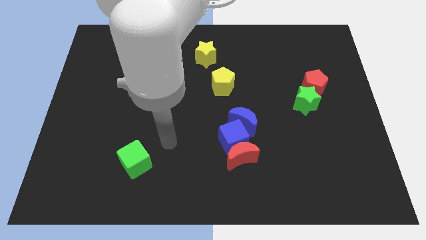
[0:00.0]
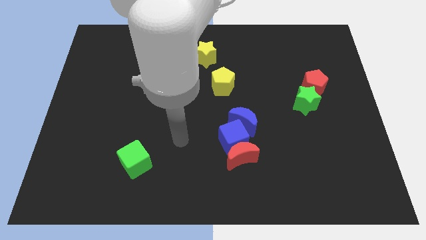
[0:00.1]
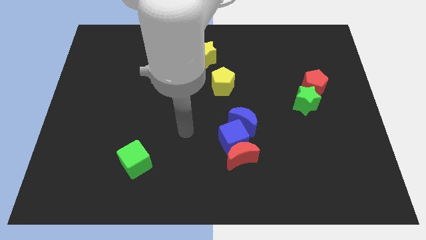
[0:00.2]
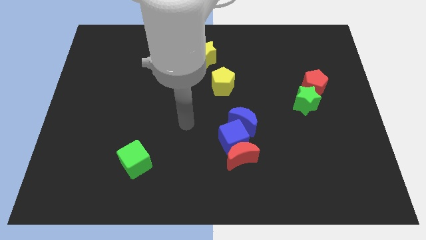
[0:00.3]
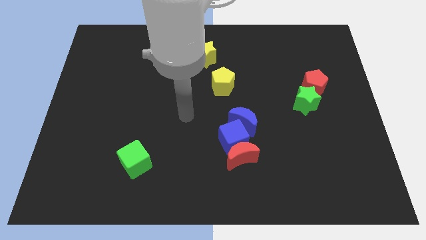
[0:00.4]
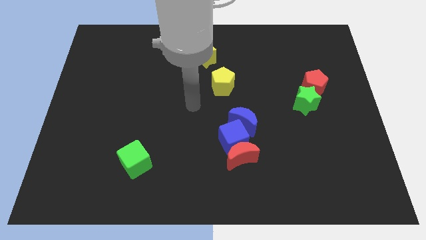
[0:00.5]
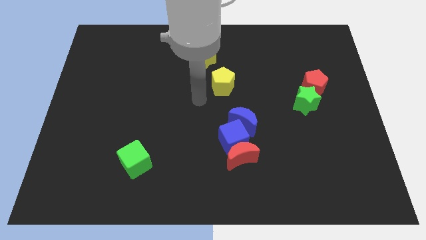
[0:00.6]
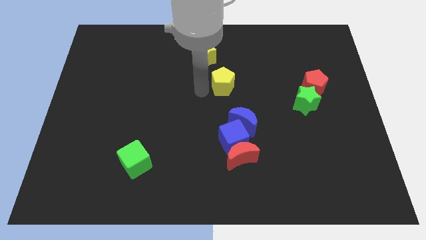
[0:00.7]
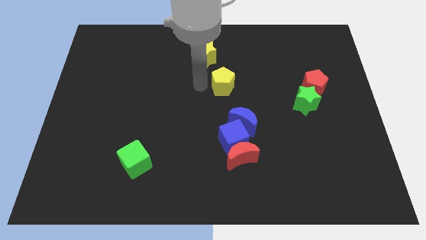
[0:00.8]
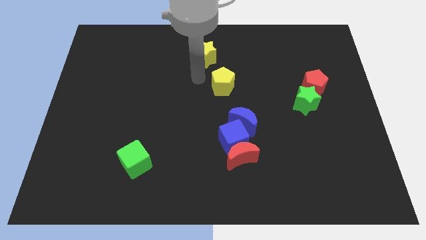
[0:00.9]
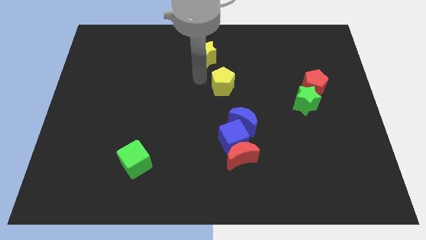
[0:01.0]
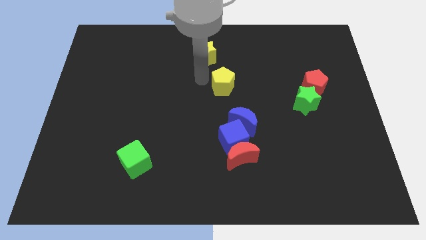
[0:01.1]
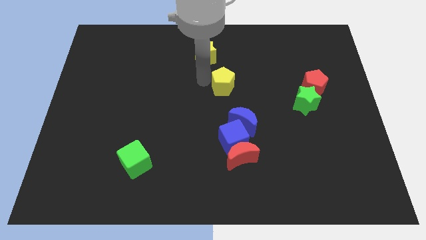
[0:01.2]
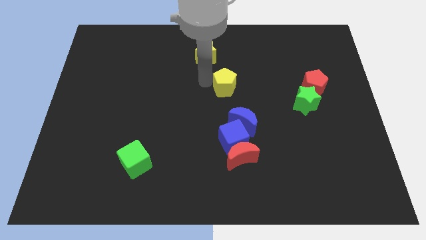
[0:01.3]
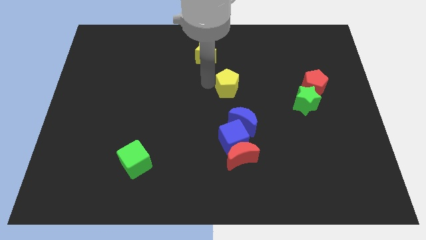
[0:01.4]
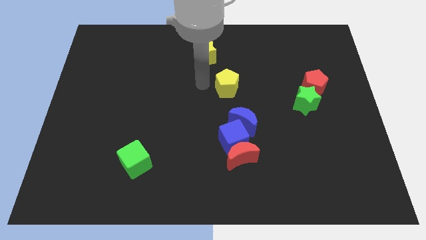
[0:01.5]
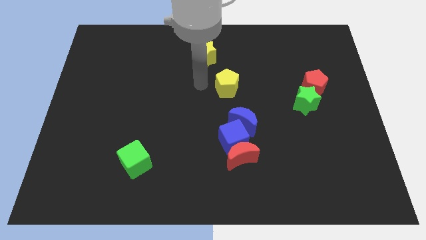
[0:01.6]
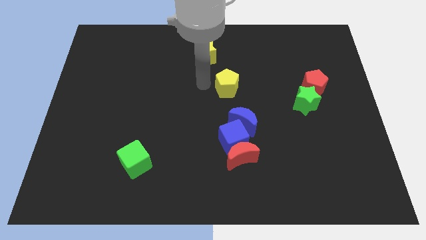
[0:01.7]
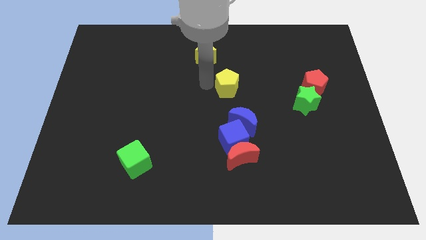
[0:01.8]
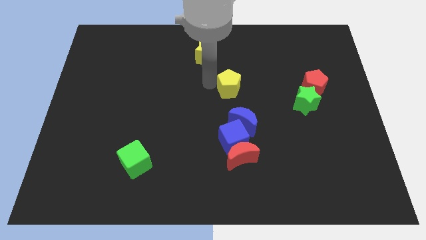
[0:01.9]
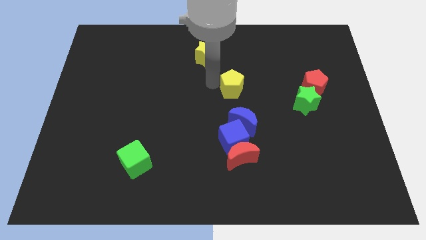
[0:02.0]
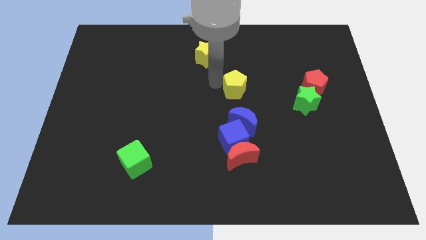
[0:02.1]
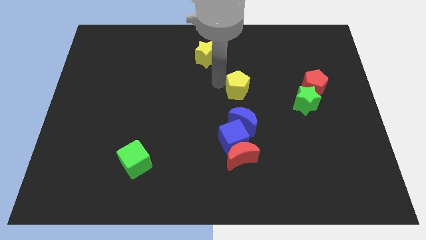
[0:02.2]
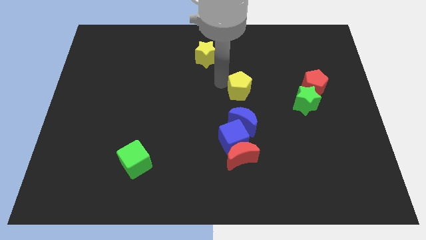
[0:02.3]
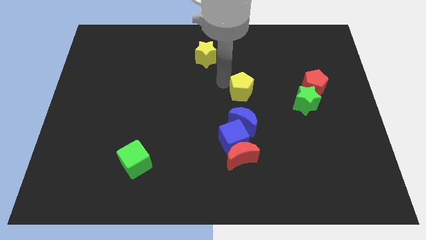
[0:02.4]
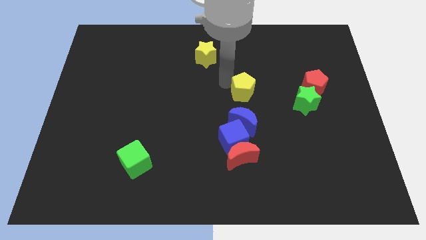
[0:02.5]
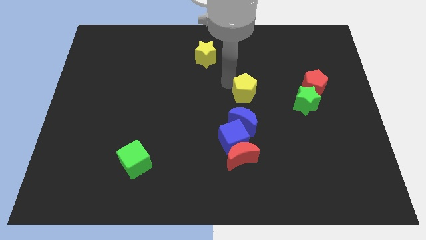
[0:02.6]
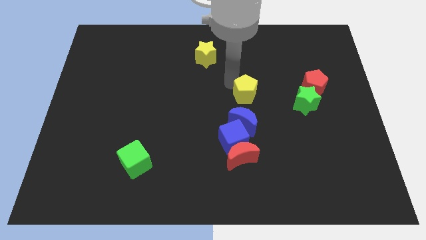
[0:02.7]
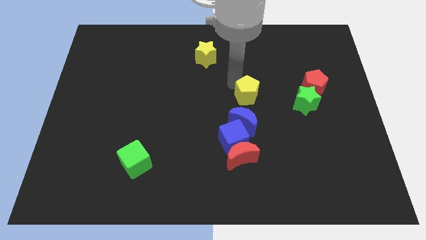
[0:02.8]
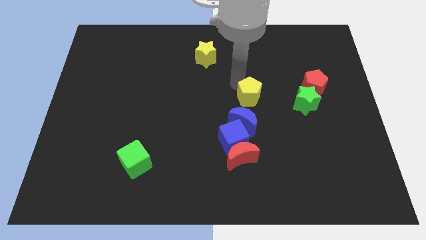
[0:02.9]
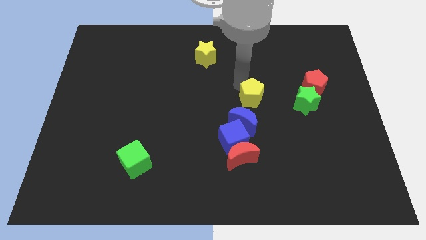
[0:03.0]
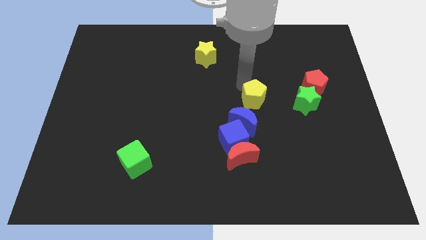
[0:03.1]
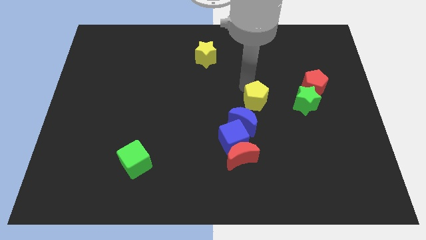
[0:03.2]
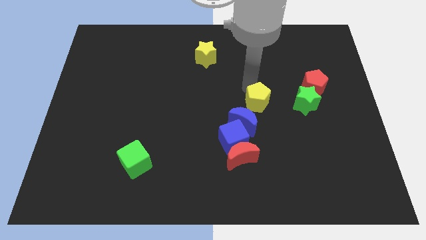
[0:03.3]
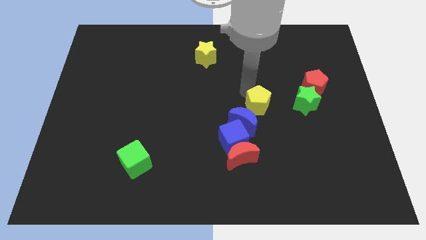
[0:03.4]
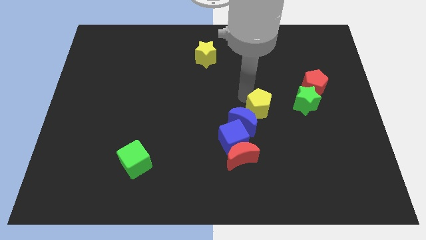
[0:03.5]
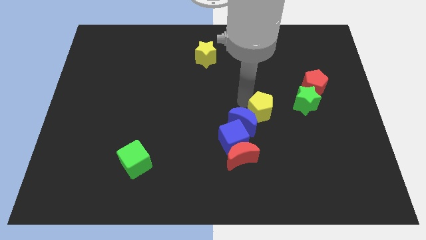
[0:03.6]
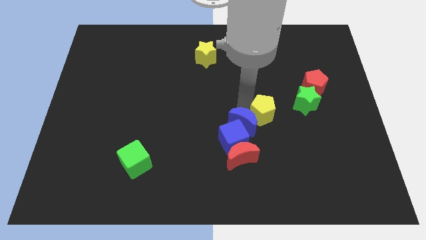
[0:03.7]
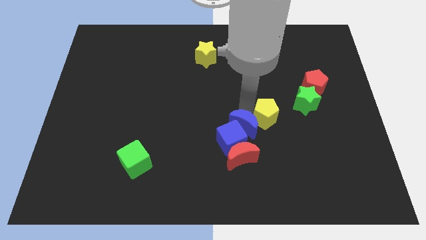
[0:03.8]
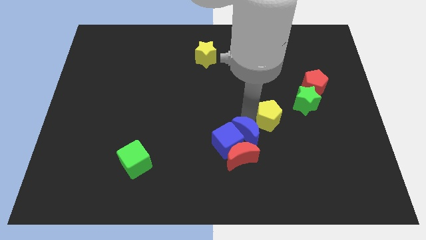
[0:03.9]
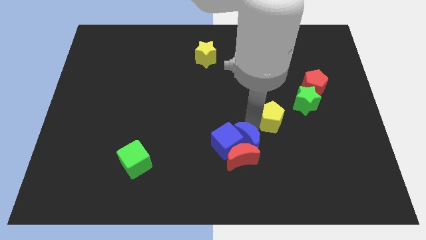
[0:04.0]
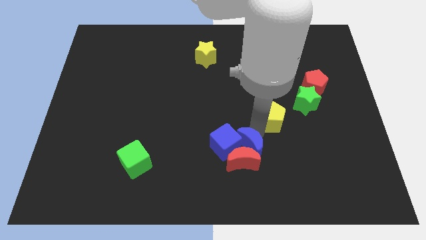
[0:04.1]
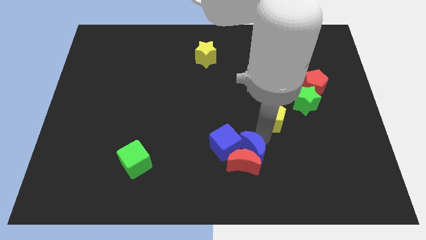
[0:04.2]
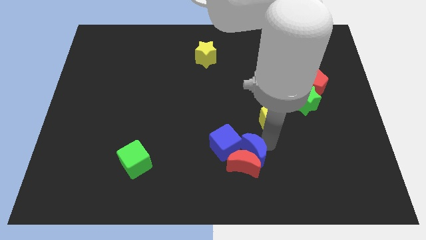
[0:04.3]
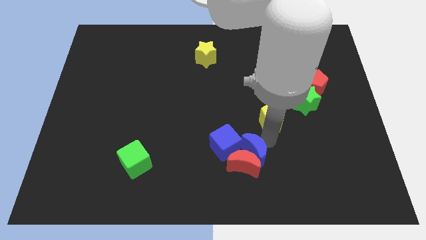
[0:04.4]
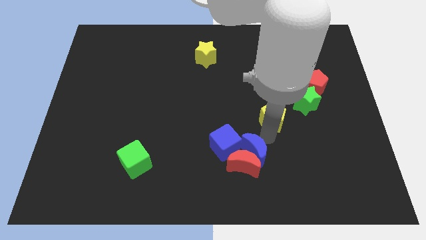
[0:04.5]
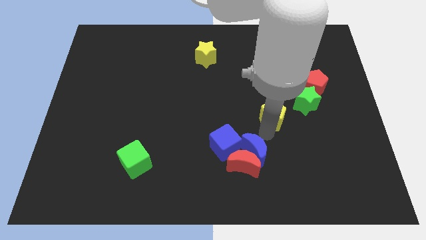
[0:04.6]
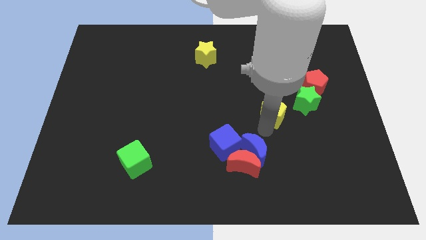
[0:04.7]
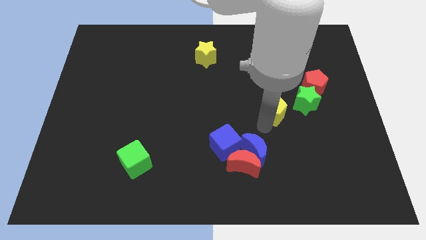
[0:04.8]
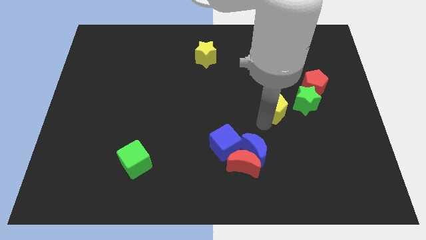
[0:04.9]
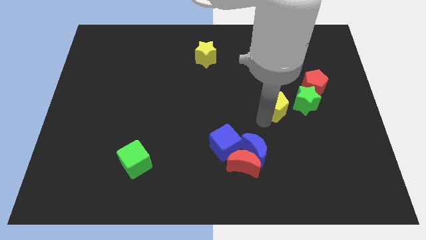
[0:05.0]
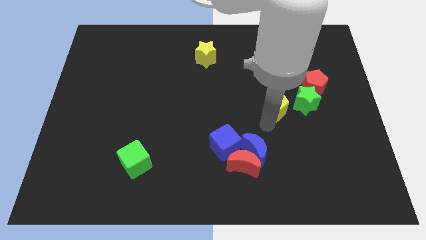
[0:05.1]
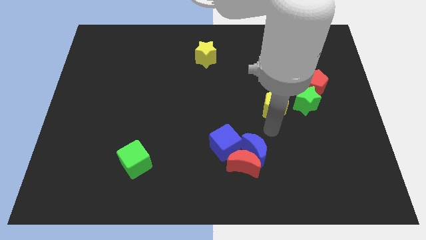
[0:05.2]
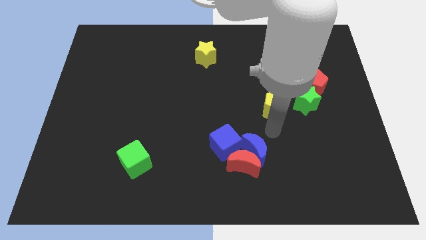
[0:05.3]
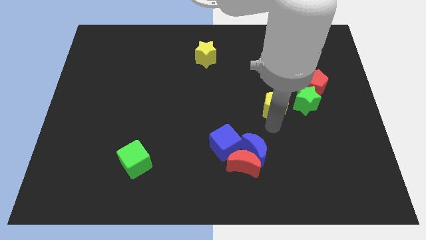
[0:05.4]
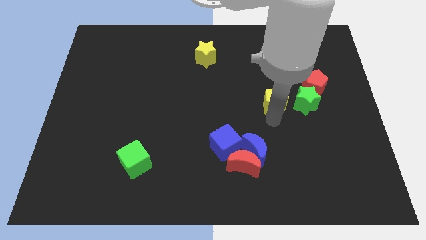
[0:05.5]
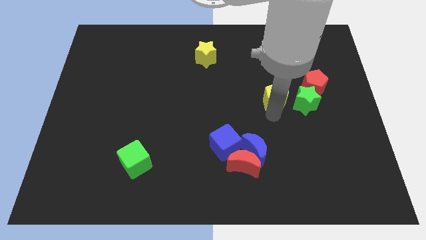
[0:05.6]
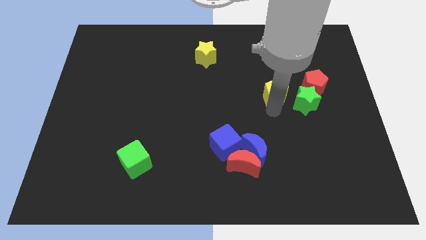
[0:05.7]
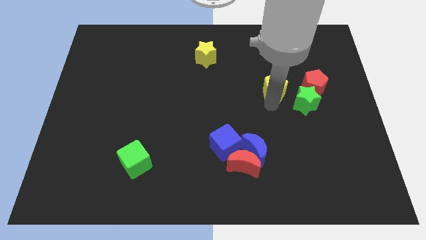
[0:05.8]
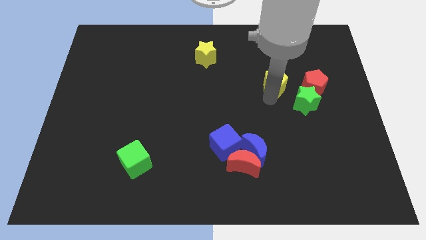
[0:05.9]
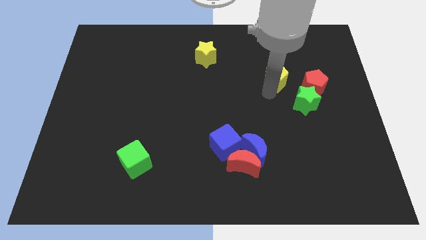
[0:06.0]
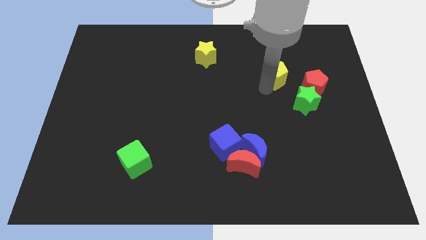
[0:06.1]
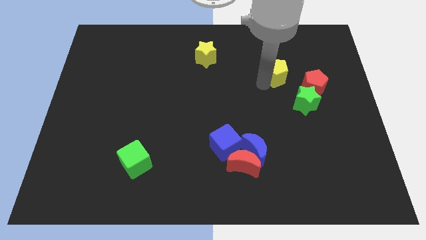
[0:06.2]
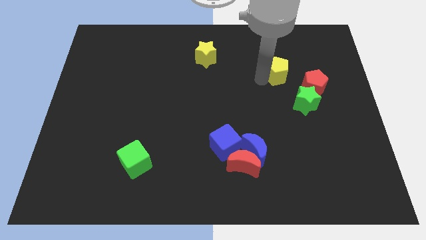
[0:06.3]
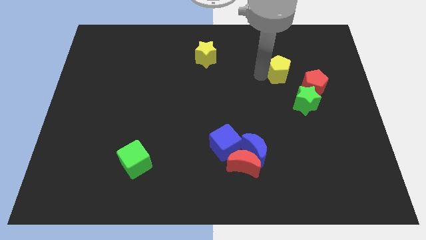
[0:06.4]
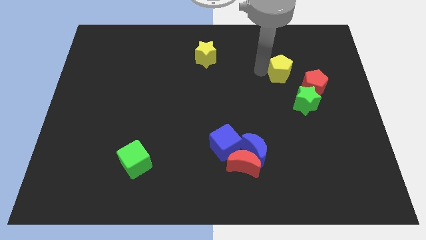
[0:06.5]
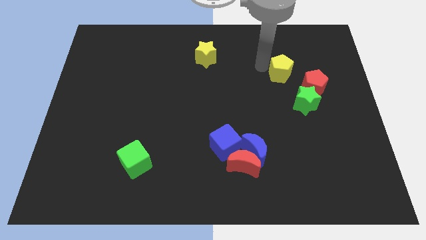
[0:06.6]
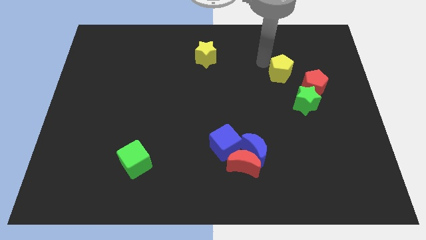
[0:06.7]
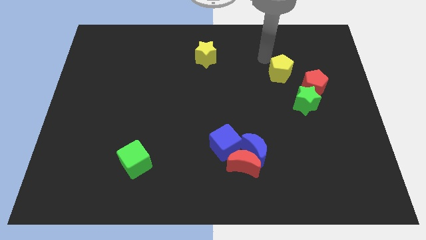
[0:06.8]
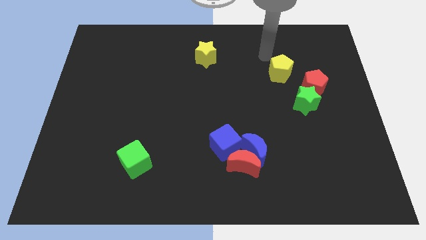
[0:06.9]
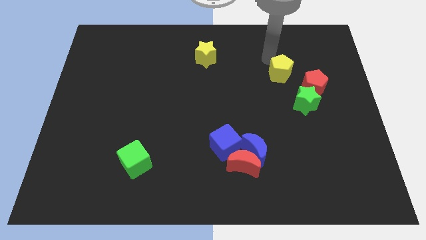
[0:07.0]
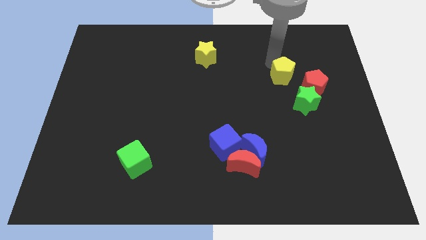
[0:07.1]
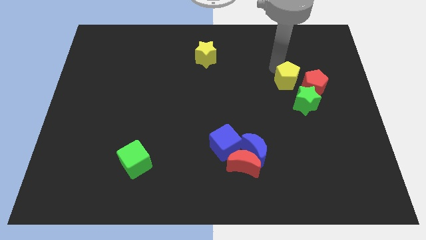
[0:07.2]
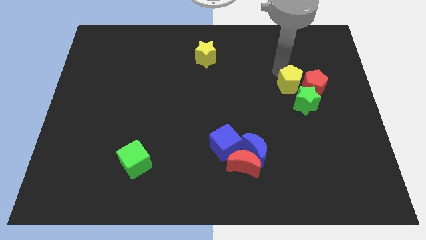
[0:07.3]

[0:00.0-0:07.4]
slide the yellow pentagon next to the red pentagon

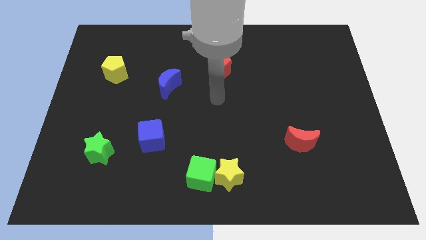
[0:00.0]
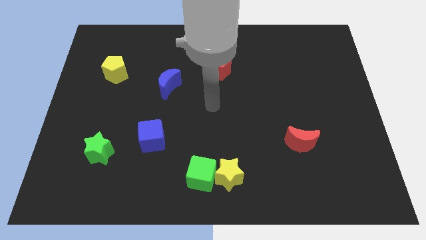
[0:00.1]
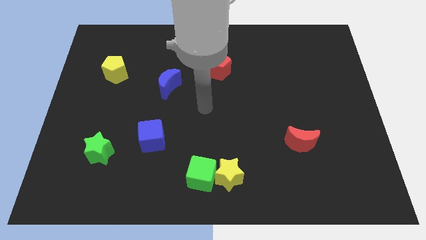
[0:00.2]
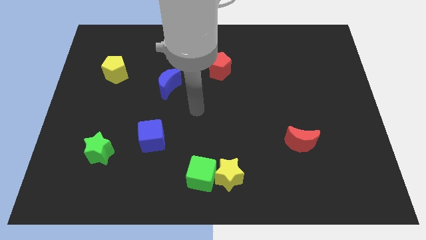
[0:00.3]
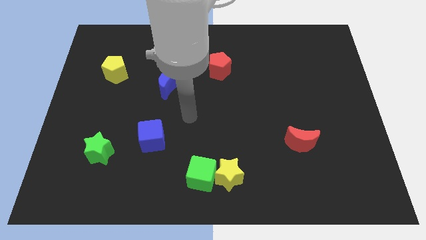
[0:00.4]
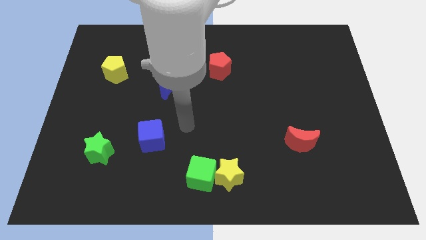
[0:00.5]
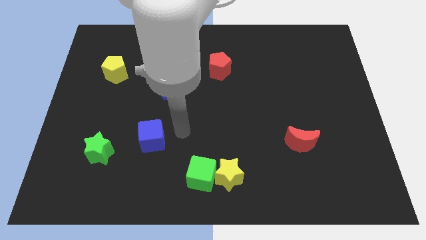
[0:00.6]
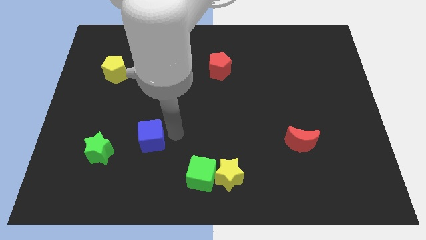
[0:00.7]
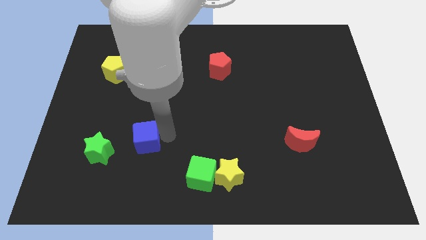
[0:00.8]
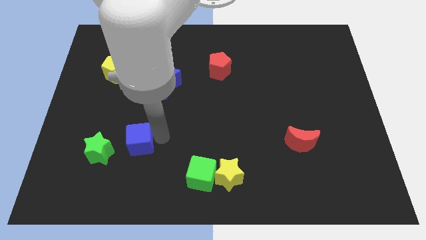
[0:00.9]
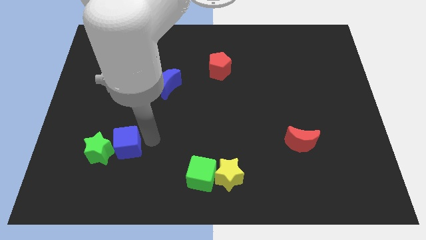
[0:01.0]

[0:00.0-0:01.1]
put the blue cube towards the green star
